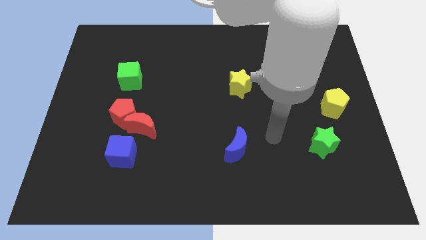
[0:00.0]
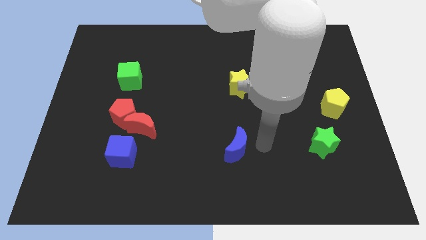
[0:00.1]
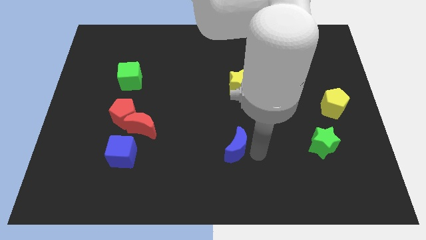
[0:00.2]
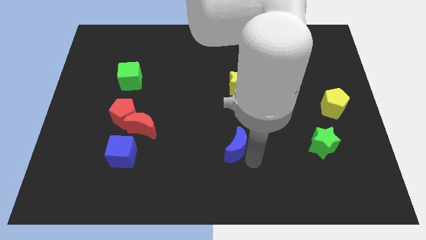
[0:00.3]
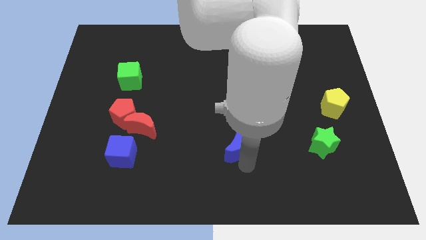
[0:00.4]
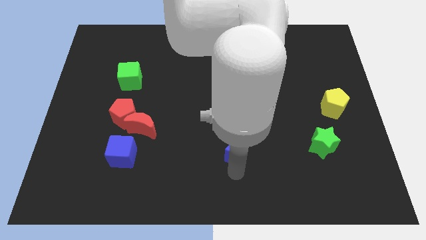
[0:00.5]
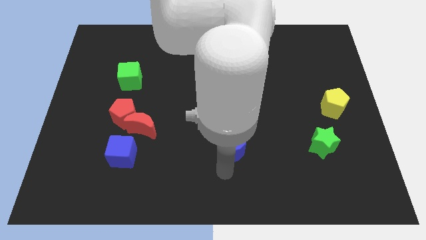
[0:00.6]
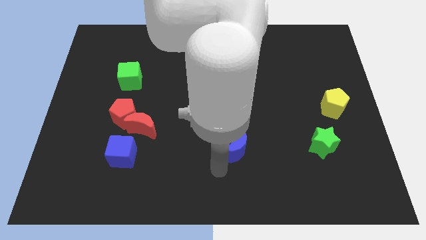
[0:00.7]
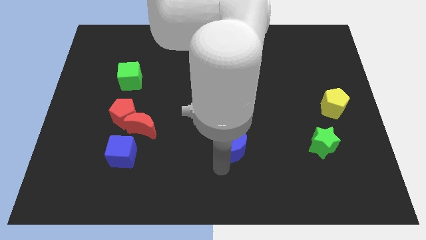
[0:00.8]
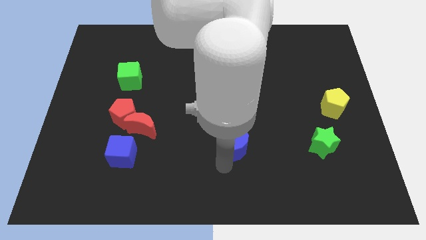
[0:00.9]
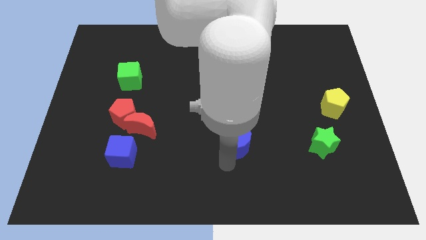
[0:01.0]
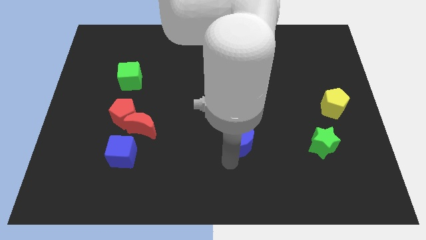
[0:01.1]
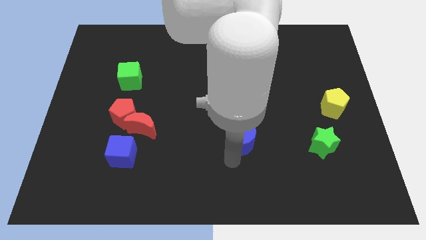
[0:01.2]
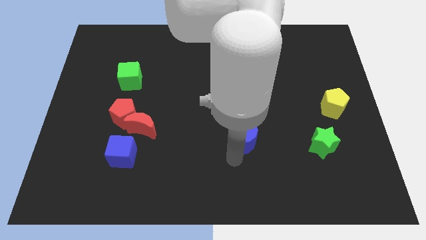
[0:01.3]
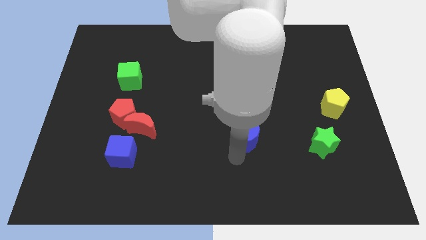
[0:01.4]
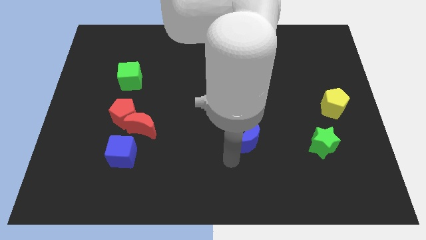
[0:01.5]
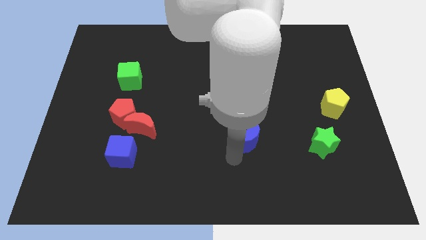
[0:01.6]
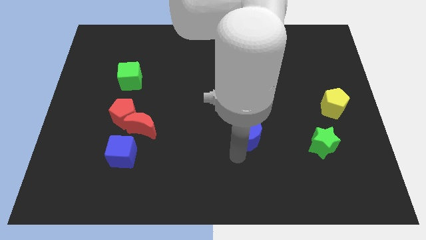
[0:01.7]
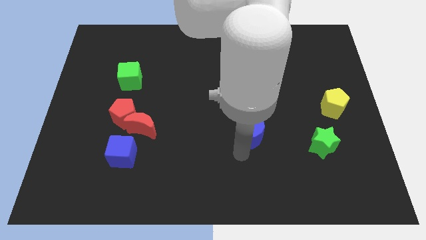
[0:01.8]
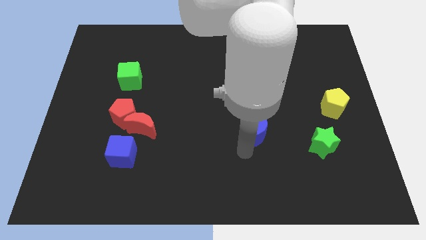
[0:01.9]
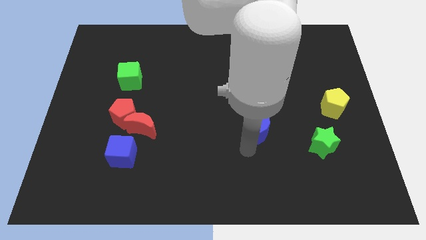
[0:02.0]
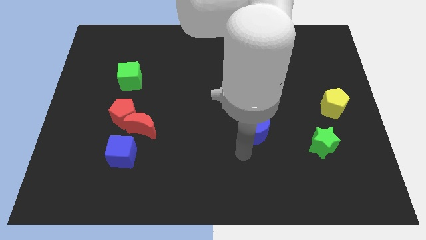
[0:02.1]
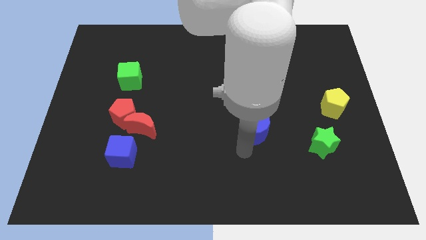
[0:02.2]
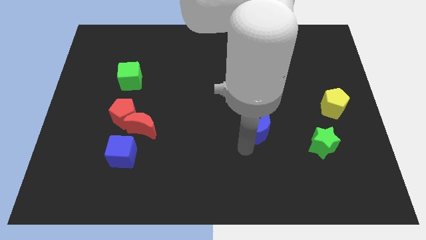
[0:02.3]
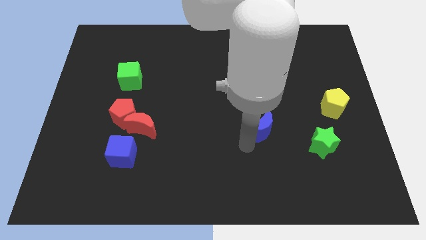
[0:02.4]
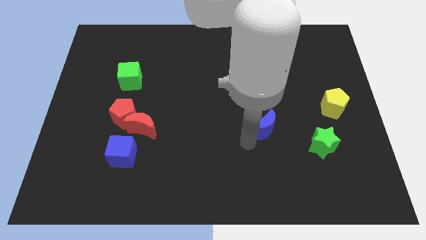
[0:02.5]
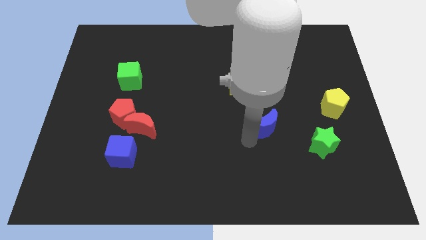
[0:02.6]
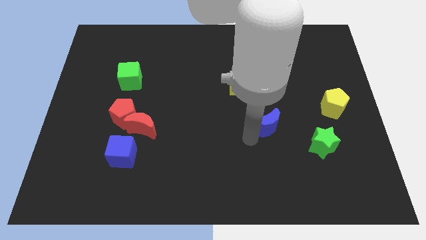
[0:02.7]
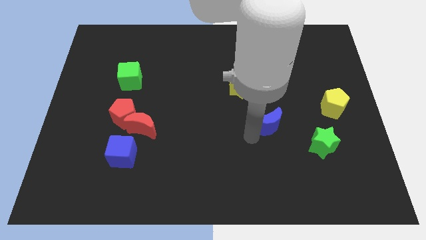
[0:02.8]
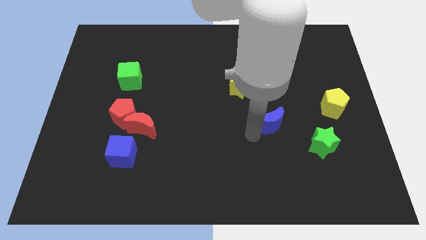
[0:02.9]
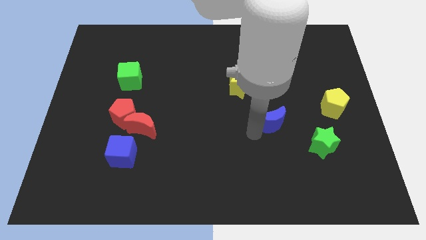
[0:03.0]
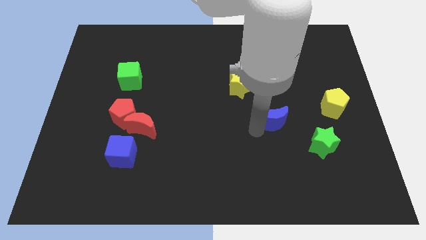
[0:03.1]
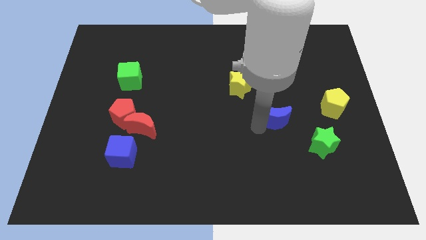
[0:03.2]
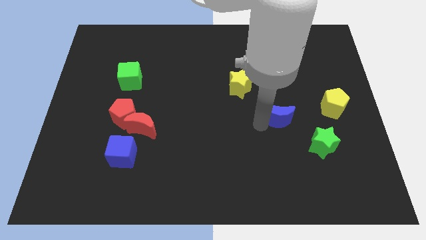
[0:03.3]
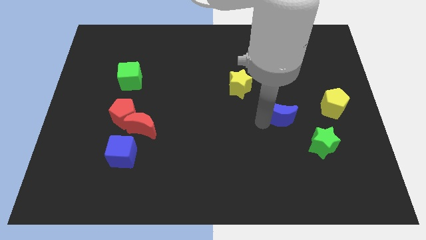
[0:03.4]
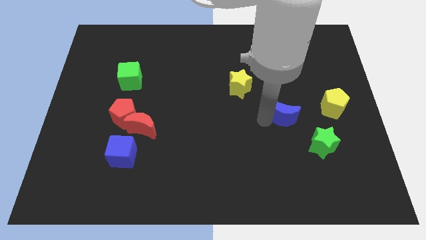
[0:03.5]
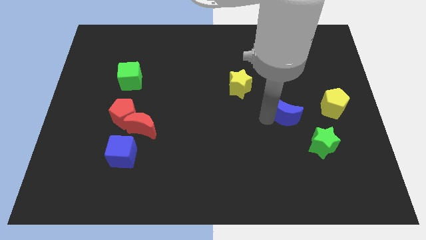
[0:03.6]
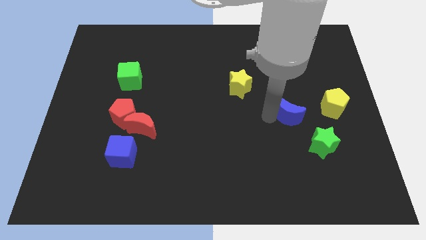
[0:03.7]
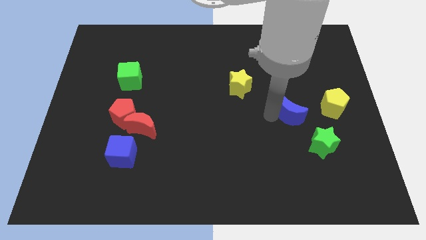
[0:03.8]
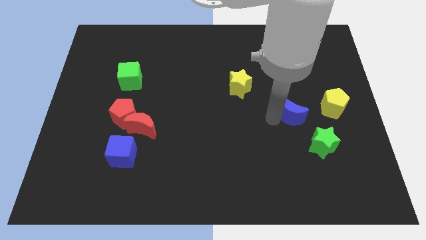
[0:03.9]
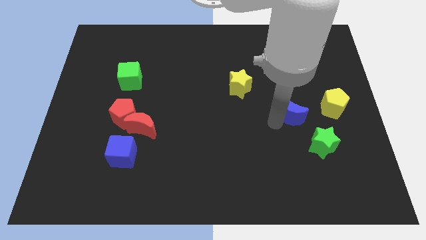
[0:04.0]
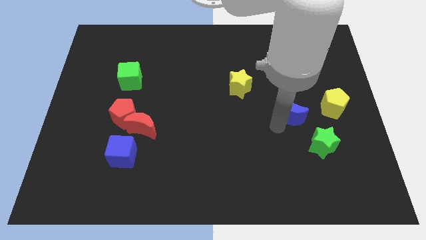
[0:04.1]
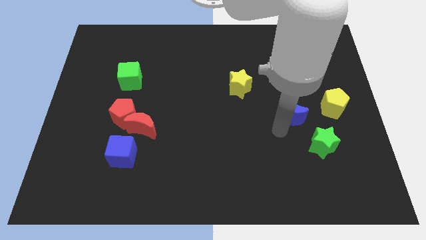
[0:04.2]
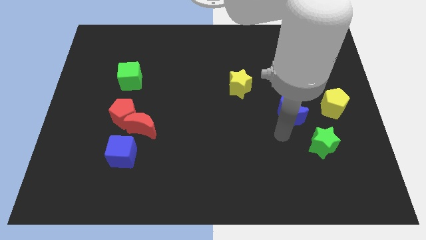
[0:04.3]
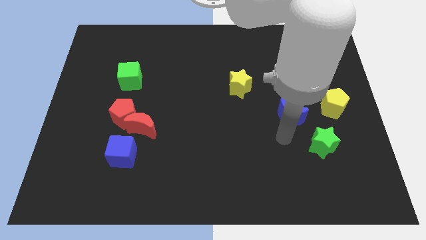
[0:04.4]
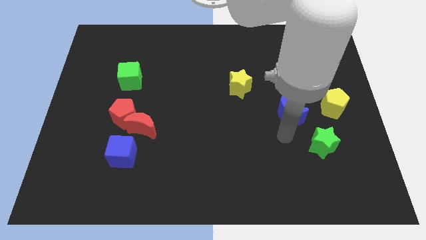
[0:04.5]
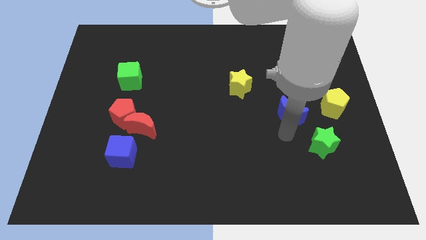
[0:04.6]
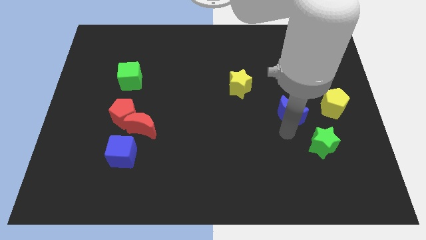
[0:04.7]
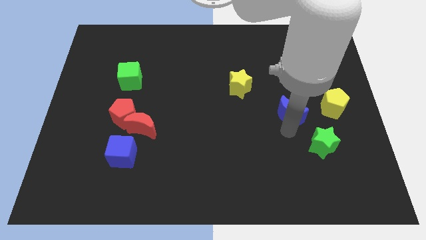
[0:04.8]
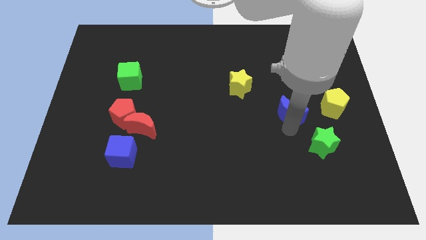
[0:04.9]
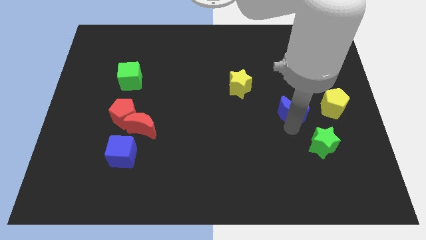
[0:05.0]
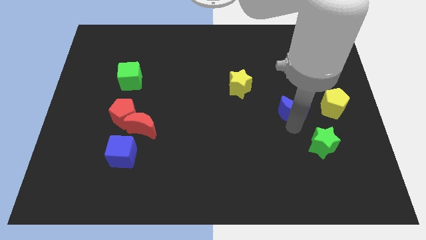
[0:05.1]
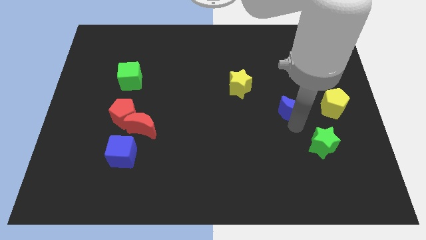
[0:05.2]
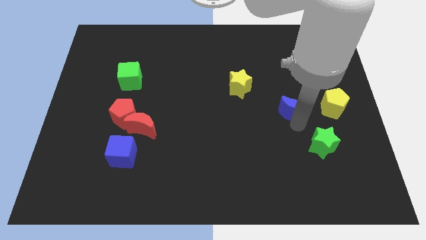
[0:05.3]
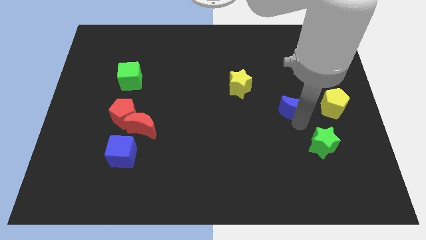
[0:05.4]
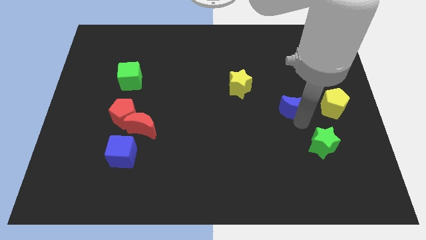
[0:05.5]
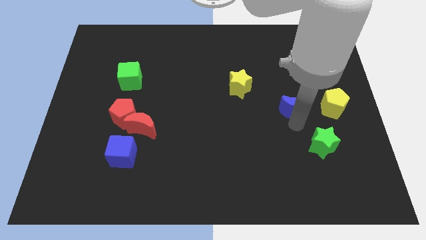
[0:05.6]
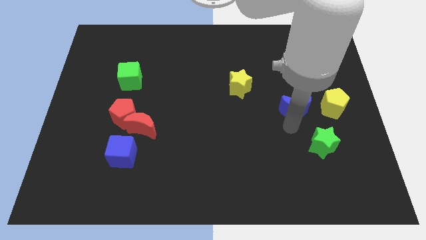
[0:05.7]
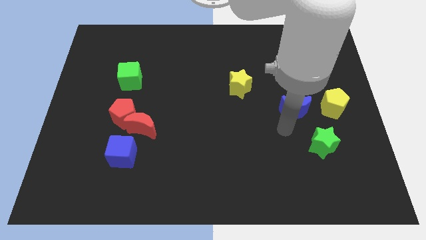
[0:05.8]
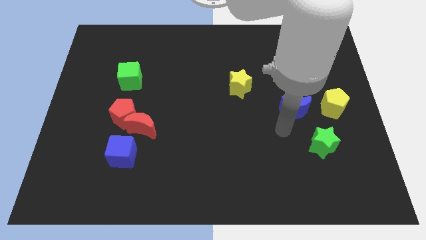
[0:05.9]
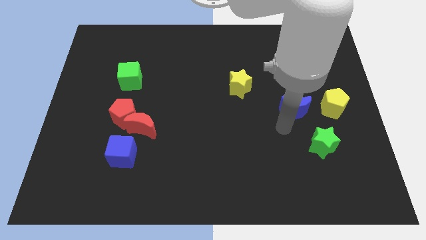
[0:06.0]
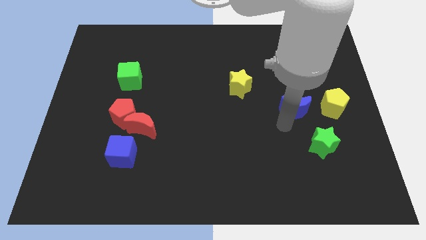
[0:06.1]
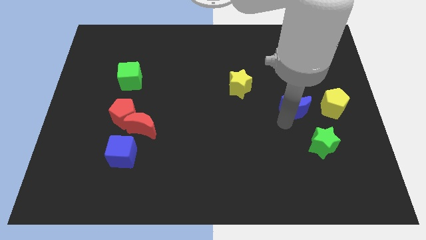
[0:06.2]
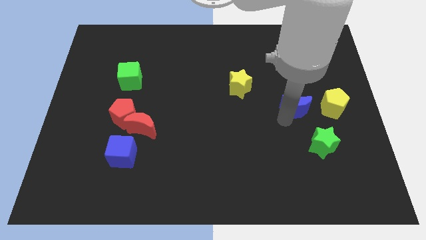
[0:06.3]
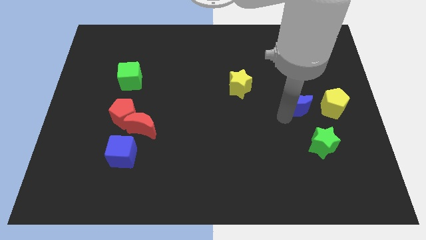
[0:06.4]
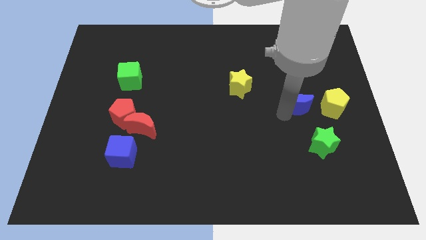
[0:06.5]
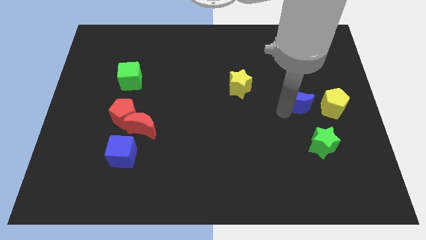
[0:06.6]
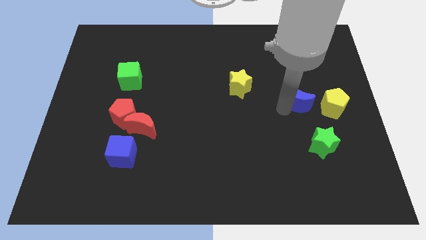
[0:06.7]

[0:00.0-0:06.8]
slide the blue moon diagonally up and to the left of the yellow pentagon
